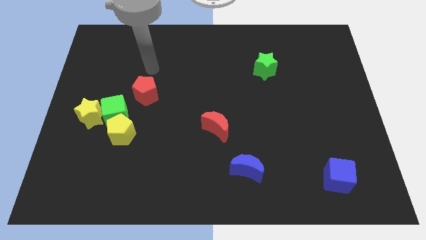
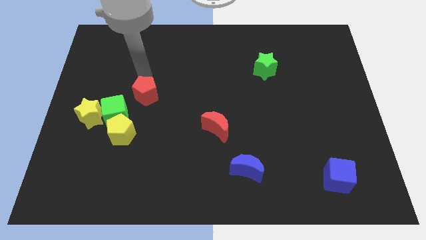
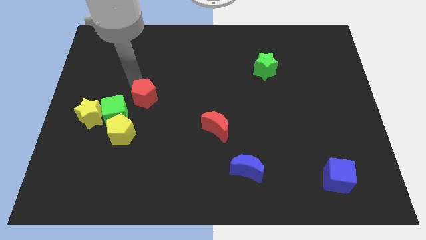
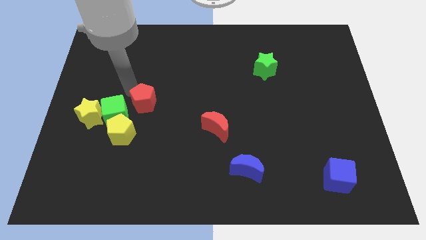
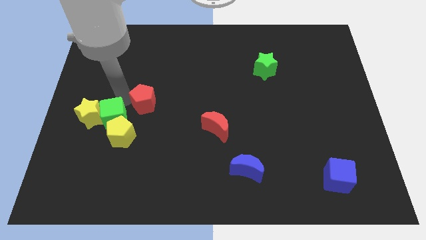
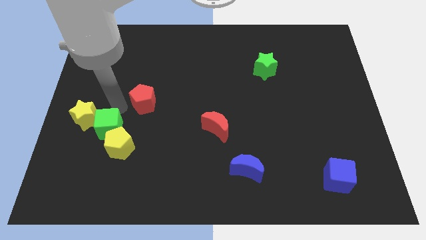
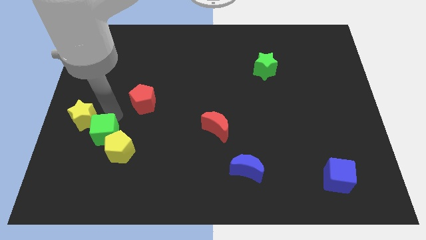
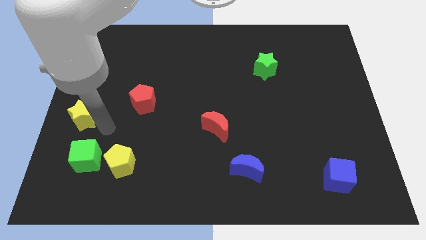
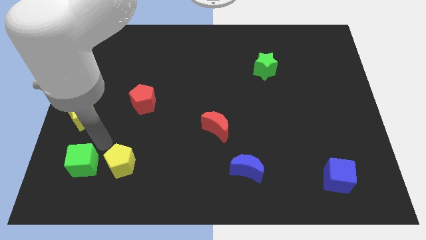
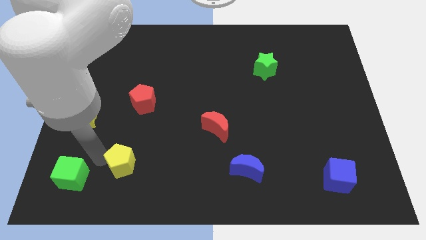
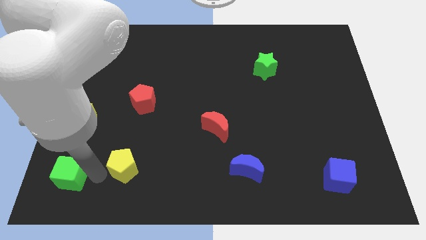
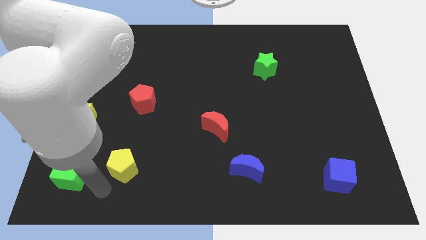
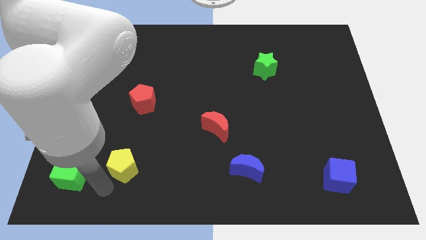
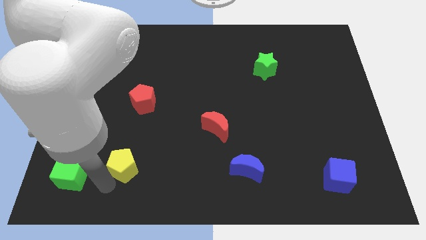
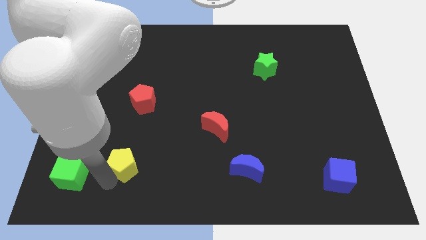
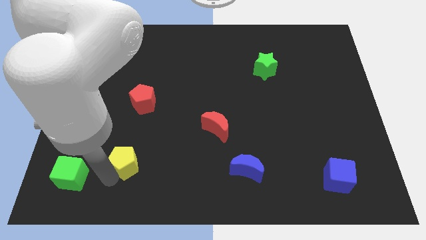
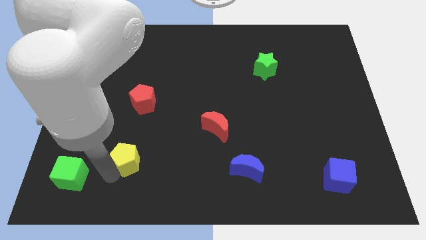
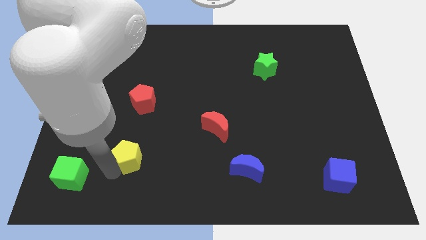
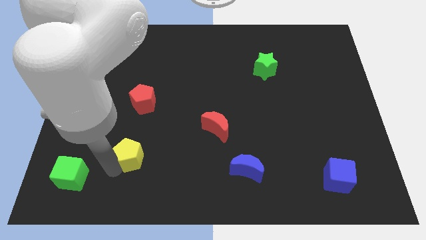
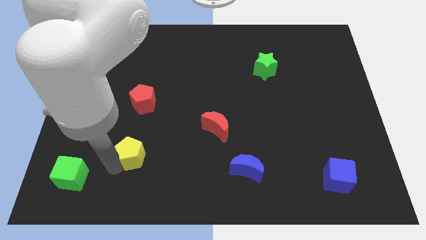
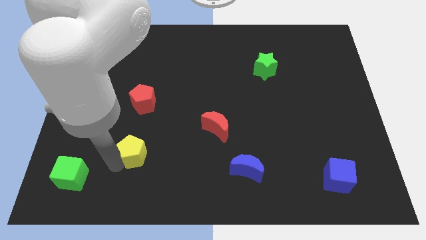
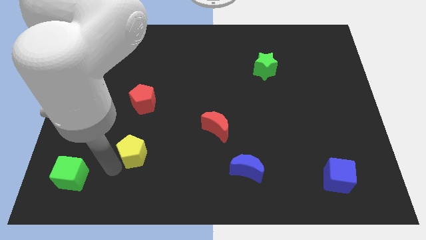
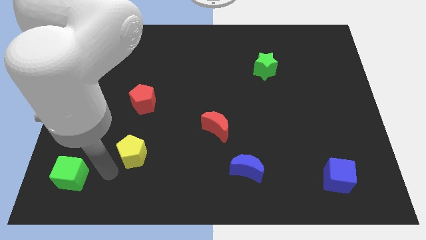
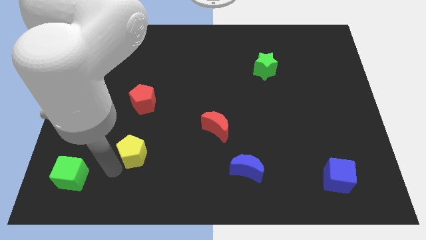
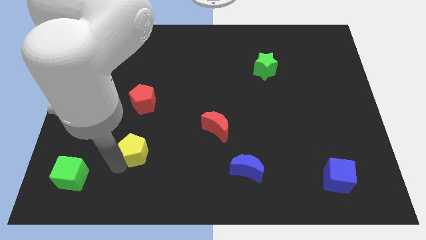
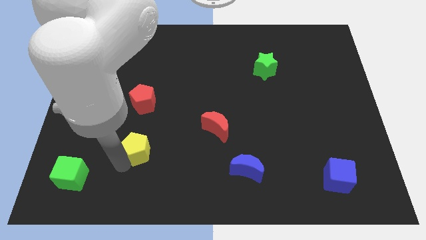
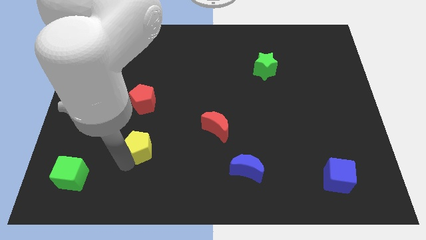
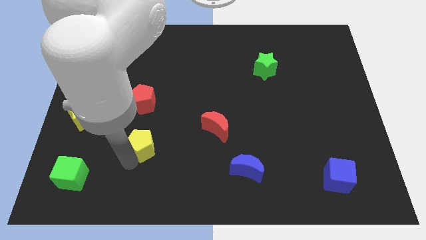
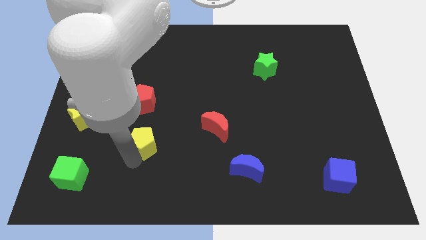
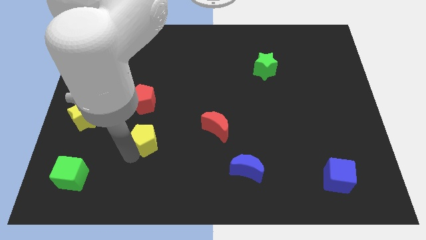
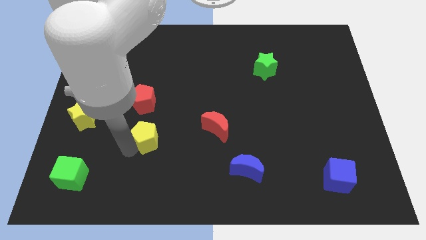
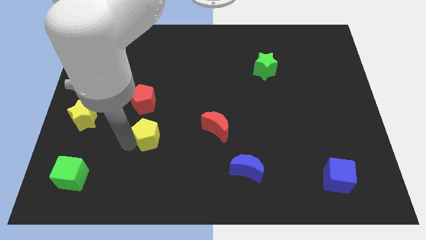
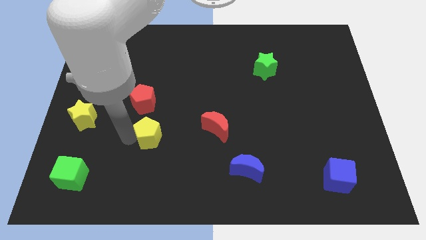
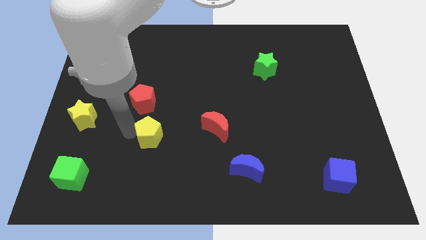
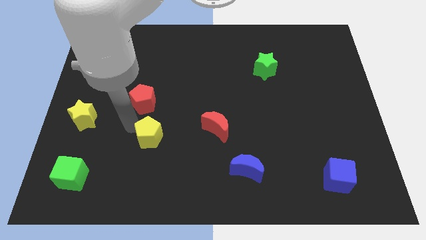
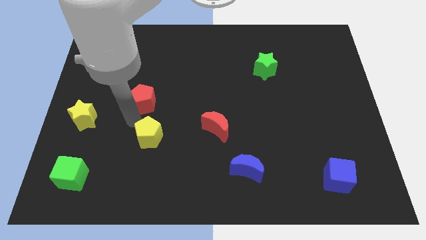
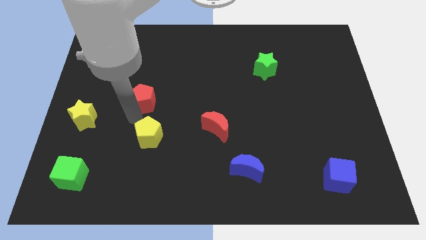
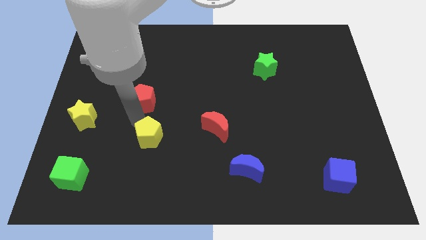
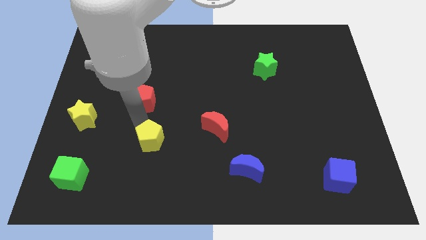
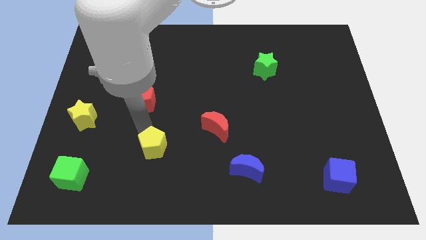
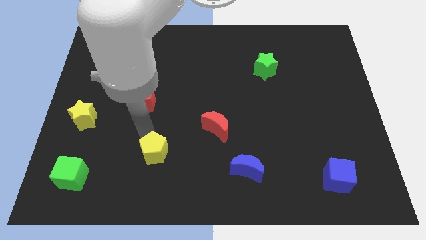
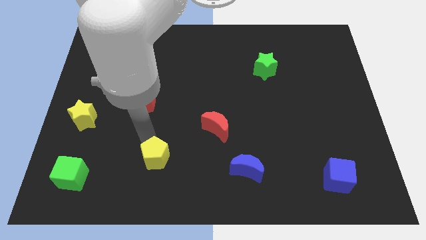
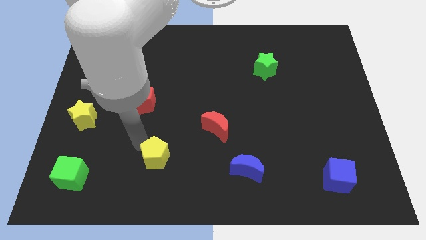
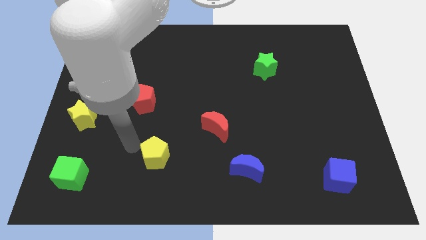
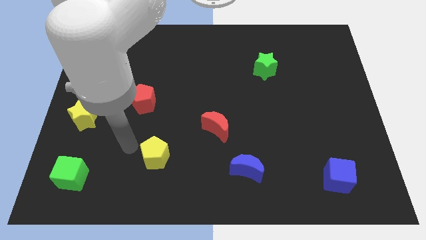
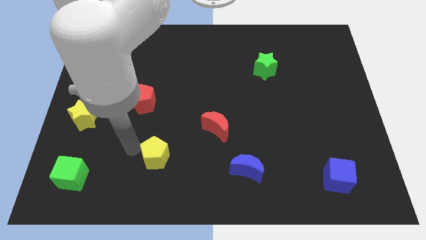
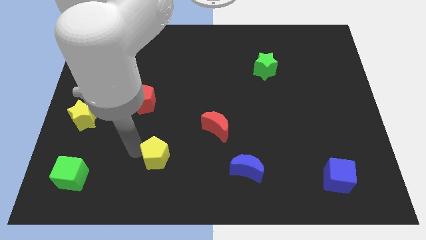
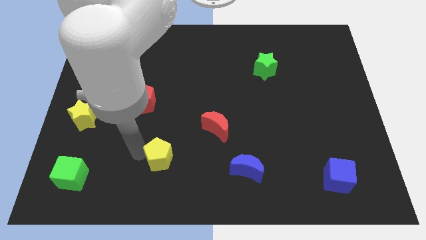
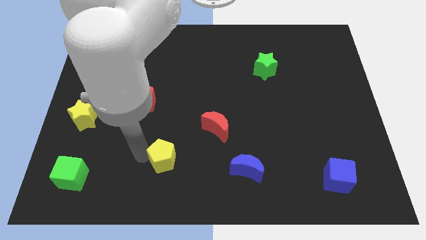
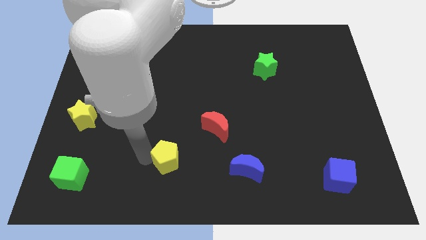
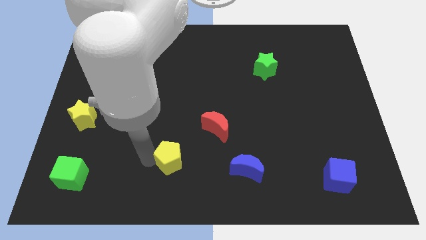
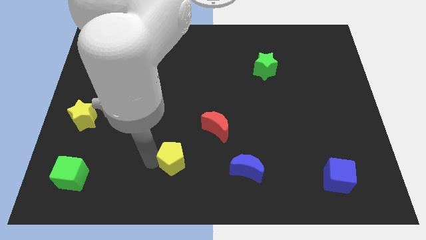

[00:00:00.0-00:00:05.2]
slide the yellow pentagon to the left side of the blue moon

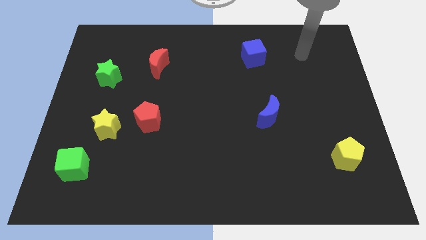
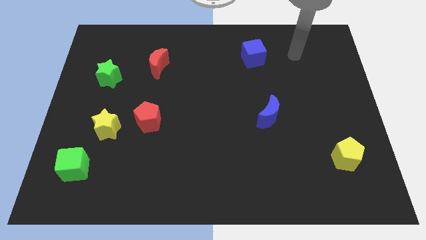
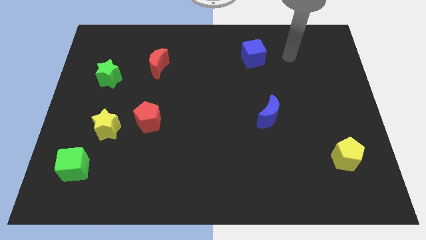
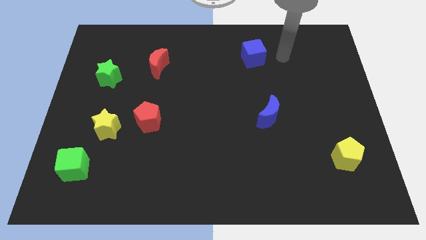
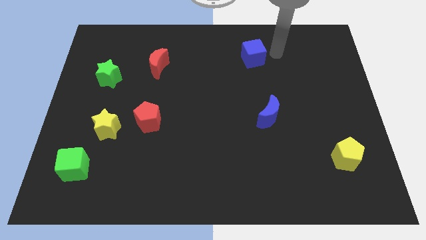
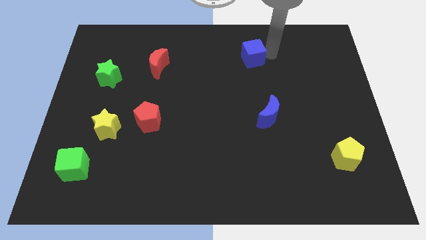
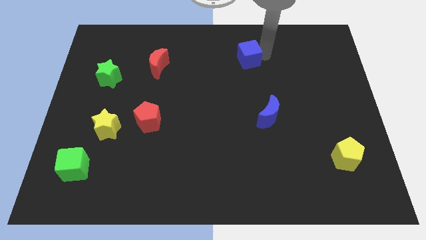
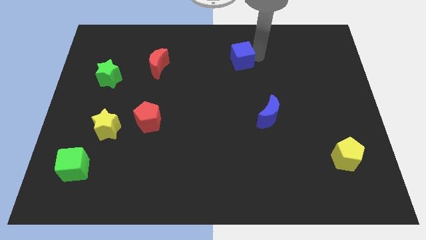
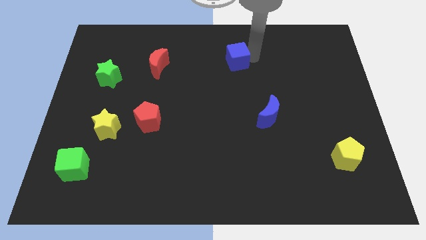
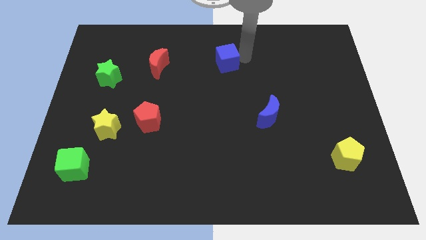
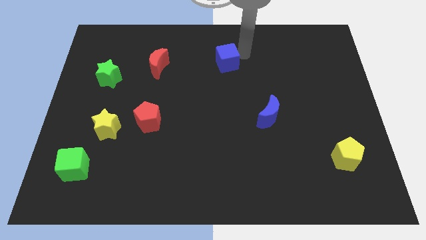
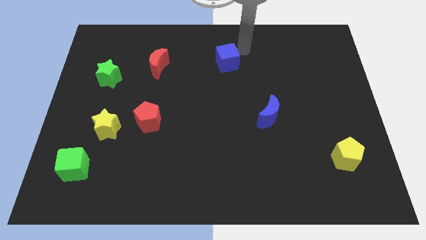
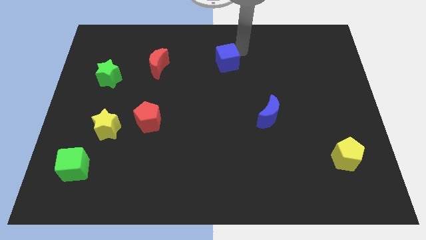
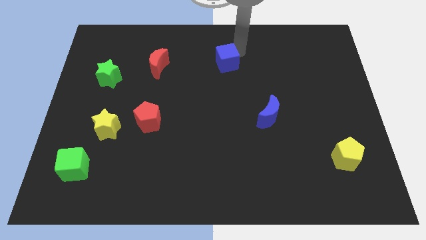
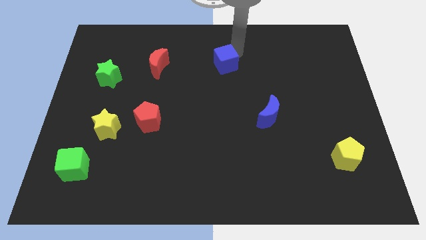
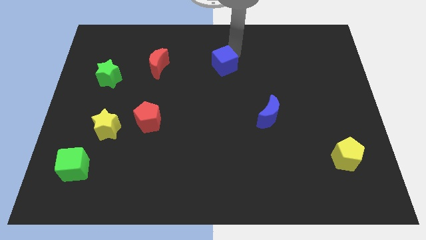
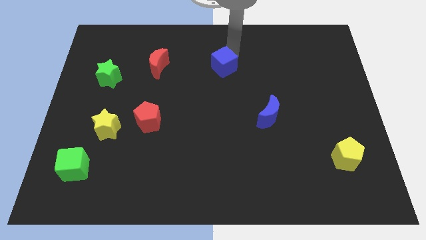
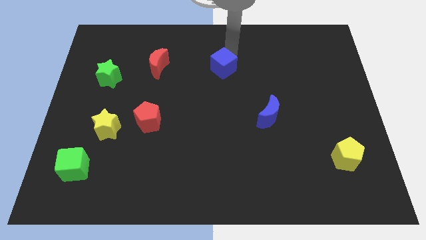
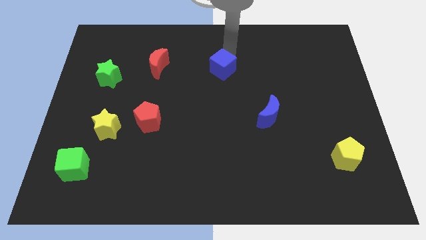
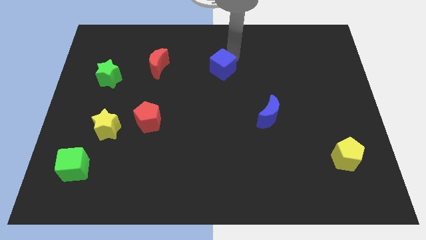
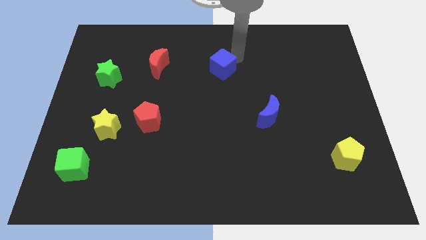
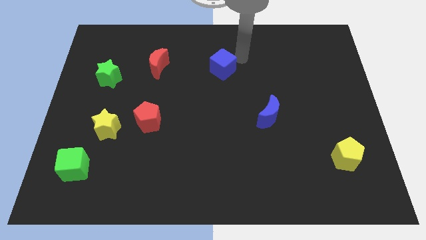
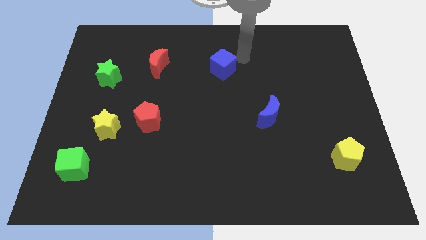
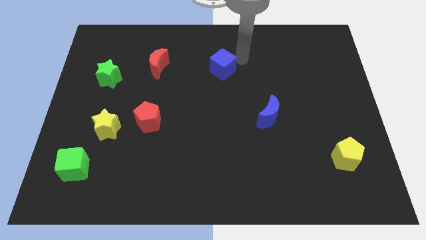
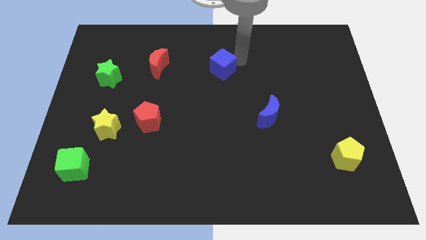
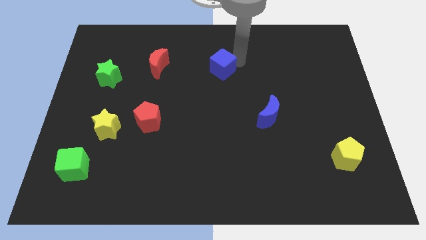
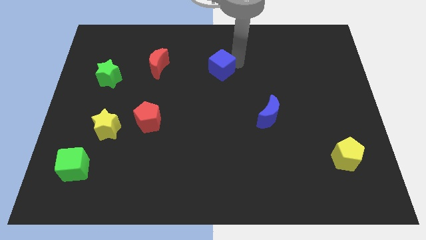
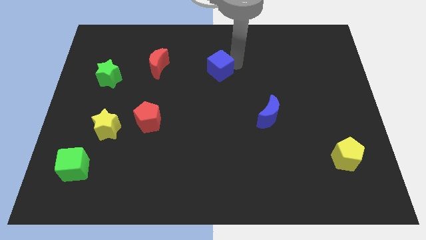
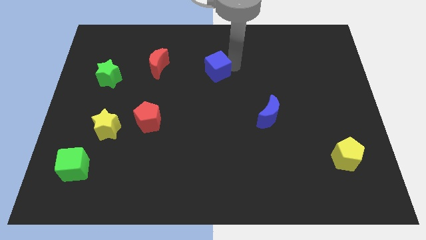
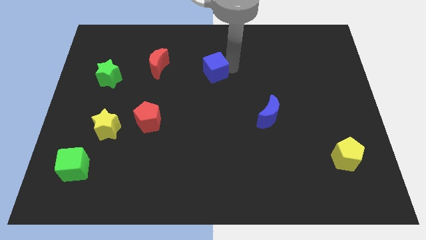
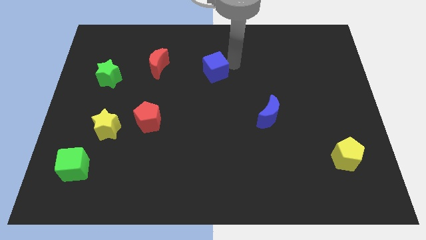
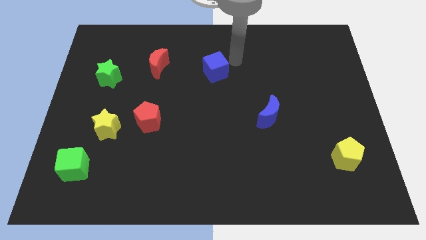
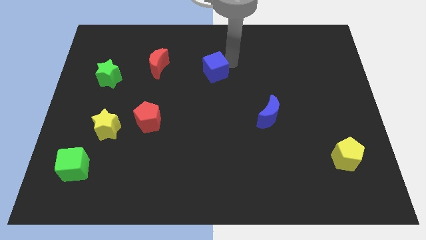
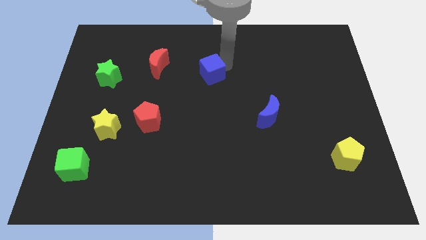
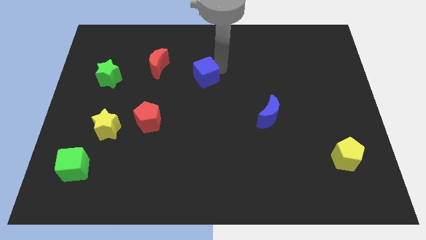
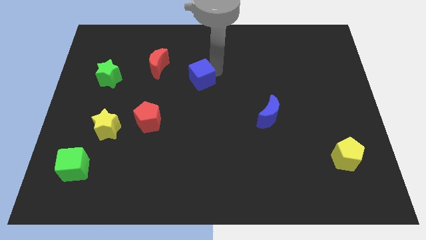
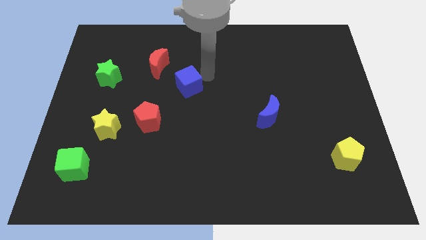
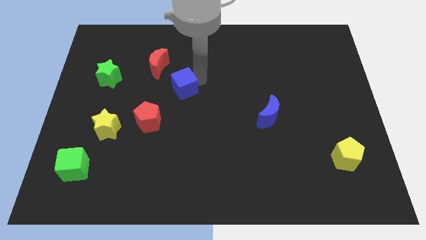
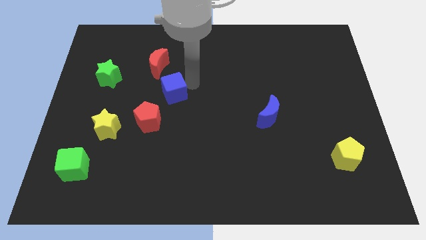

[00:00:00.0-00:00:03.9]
slide the blue cube below the red moon
